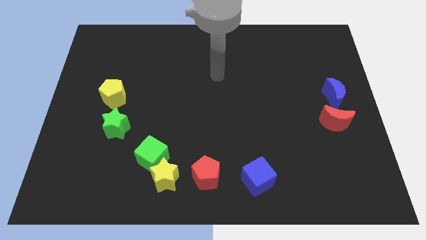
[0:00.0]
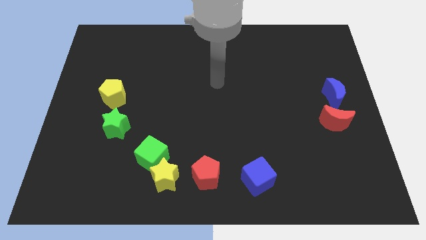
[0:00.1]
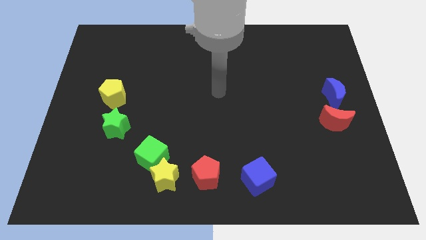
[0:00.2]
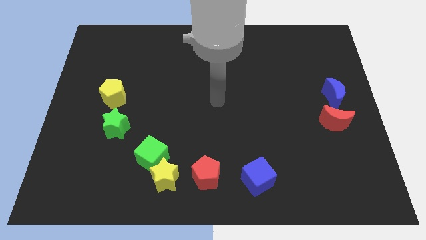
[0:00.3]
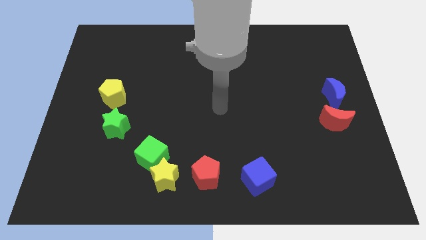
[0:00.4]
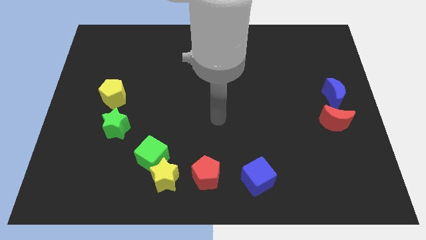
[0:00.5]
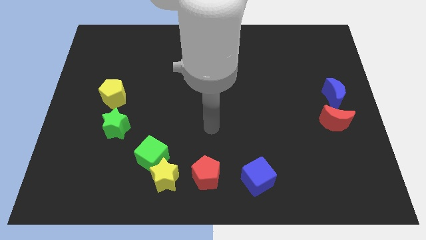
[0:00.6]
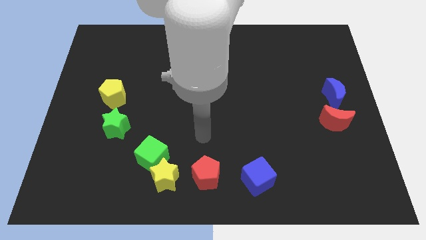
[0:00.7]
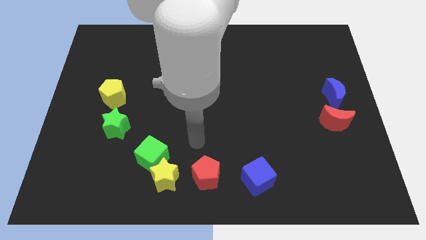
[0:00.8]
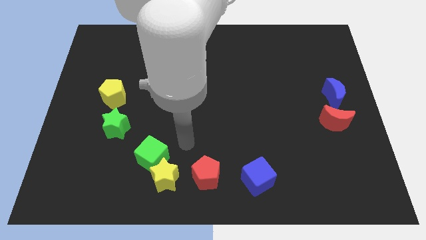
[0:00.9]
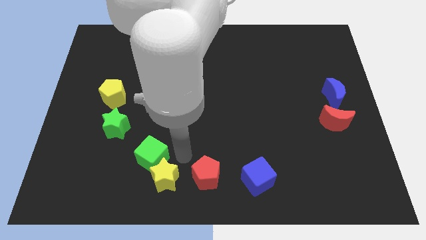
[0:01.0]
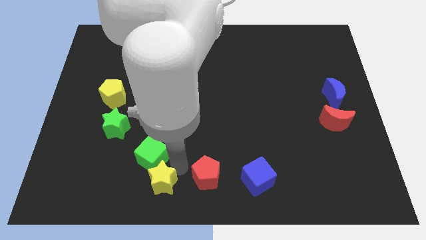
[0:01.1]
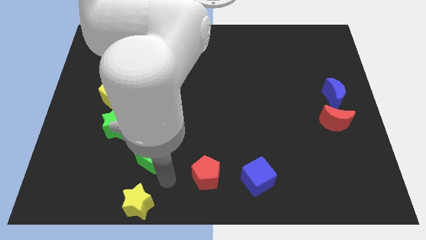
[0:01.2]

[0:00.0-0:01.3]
move the green cube away from the yellow star

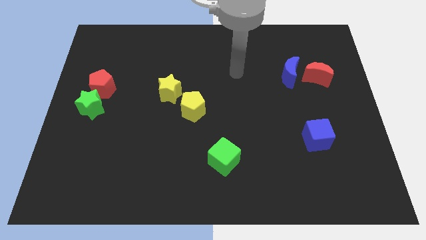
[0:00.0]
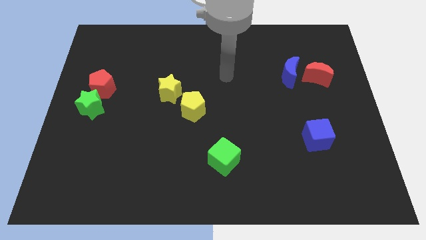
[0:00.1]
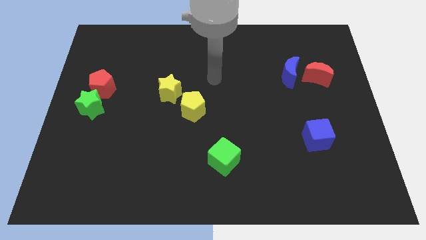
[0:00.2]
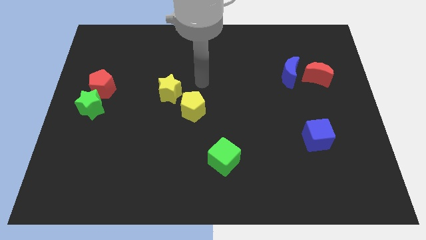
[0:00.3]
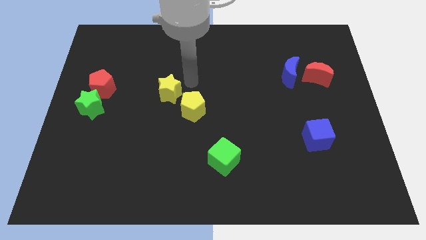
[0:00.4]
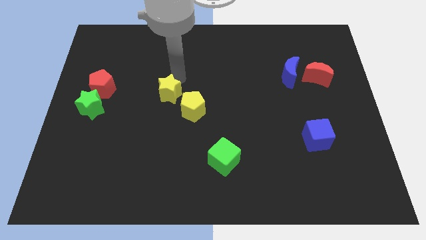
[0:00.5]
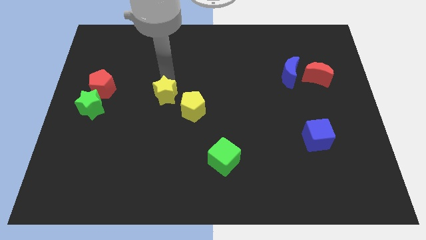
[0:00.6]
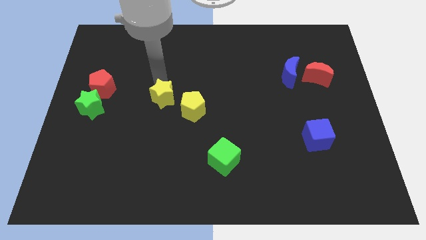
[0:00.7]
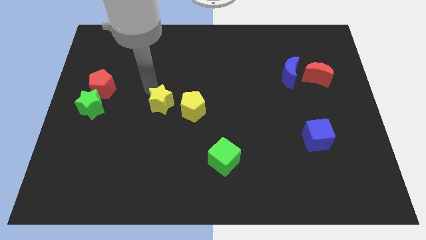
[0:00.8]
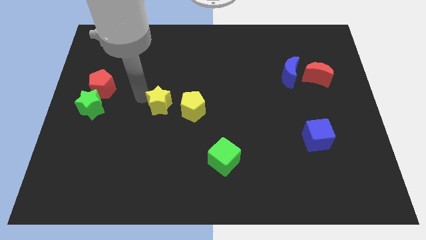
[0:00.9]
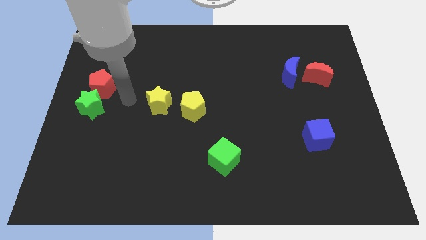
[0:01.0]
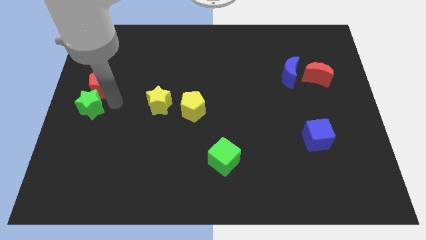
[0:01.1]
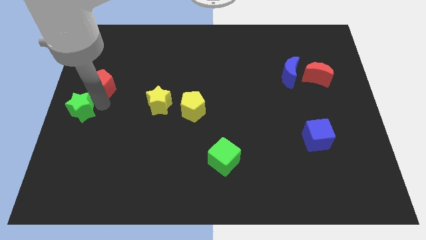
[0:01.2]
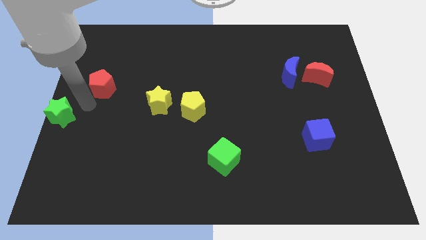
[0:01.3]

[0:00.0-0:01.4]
move the red pentagon away from the green star

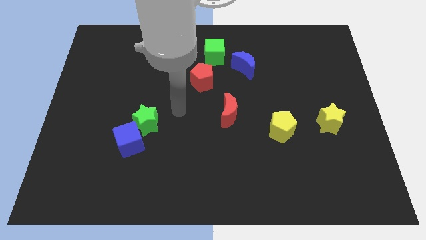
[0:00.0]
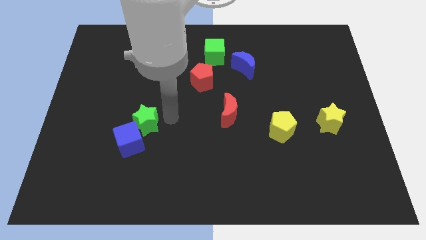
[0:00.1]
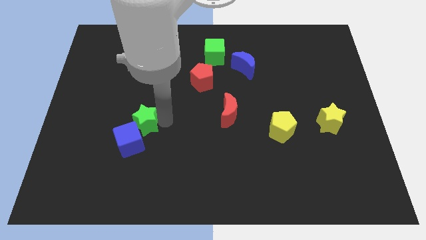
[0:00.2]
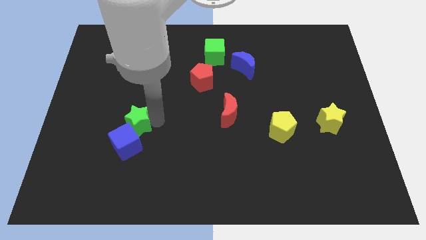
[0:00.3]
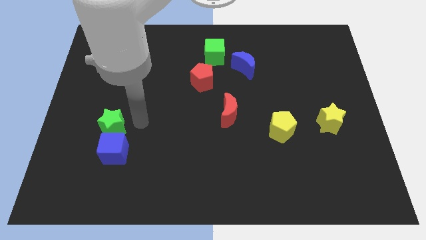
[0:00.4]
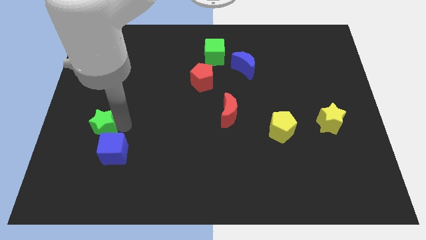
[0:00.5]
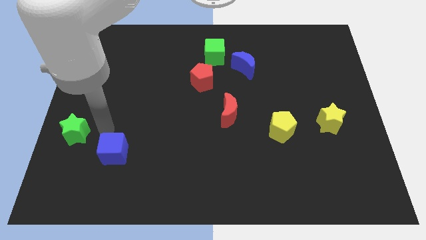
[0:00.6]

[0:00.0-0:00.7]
pull the blue cube apart from the green star

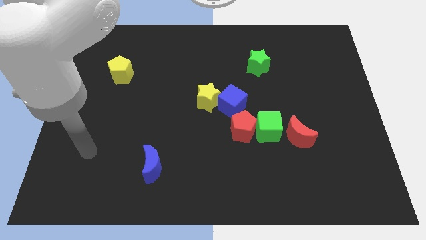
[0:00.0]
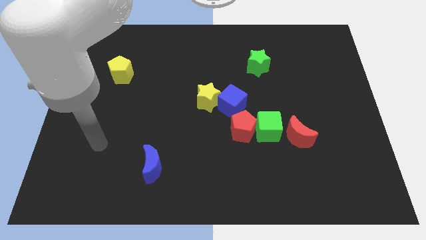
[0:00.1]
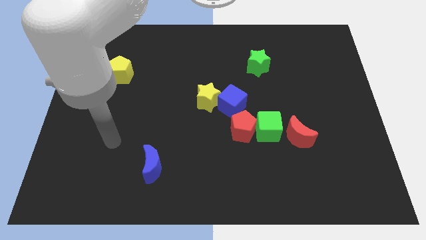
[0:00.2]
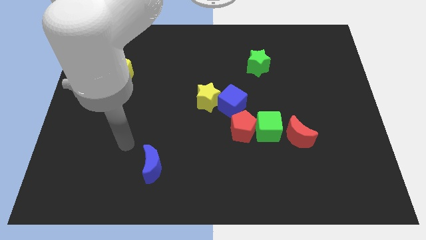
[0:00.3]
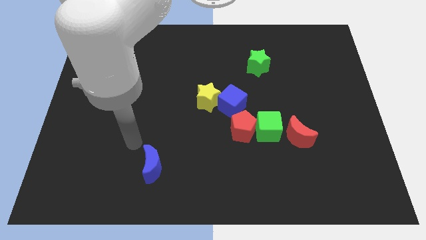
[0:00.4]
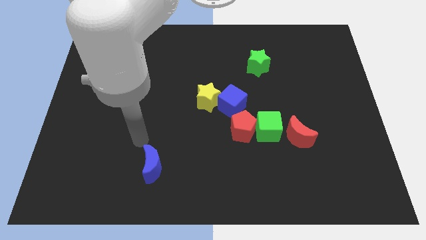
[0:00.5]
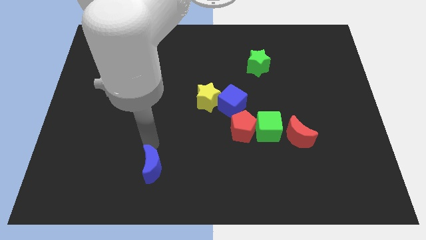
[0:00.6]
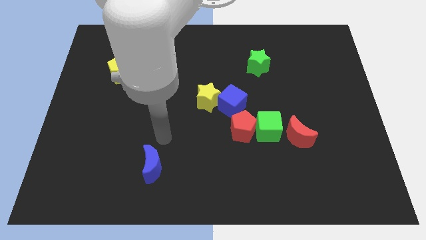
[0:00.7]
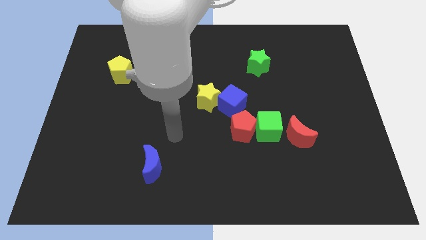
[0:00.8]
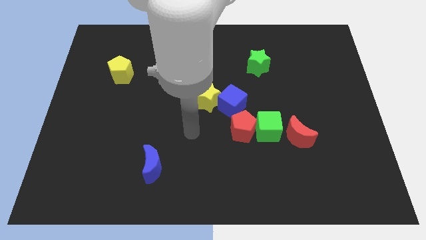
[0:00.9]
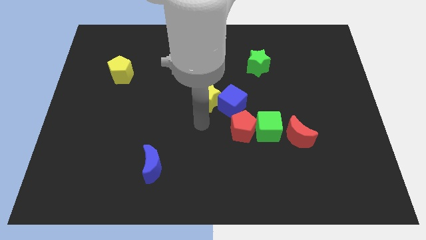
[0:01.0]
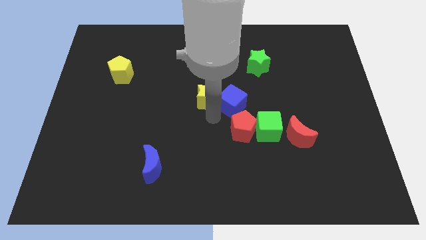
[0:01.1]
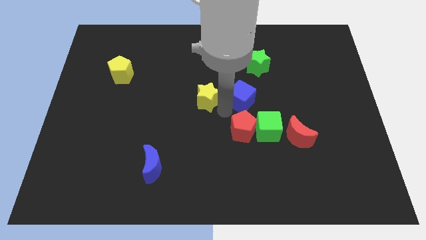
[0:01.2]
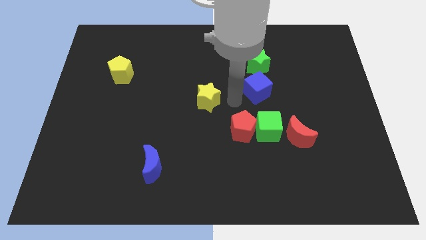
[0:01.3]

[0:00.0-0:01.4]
pull the yellow star apart from the blue cube

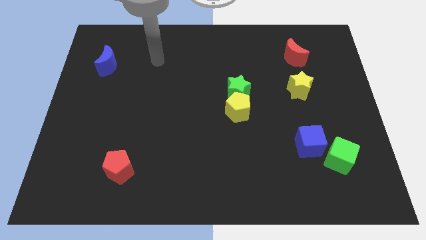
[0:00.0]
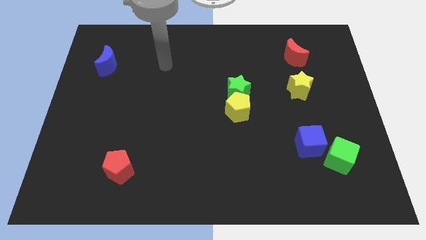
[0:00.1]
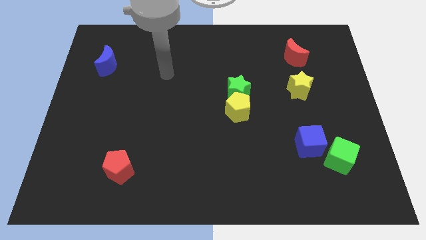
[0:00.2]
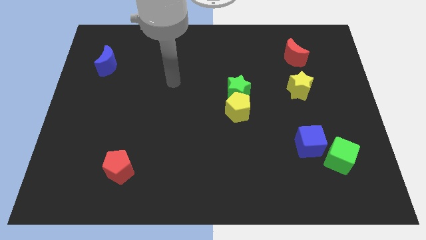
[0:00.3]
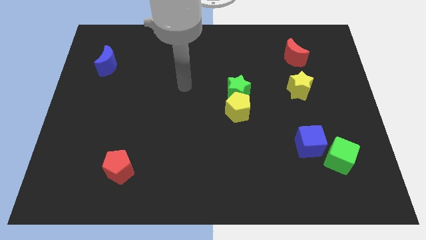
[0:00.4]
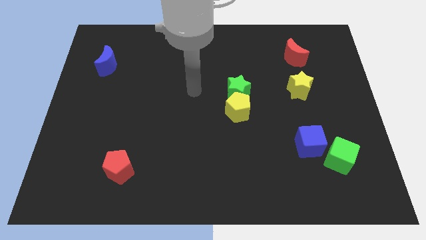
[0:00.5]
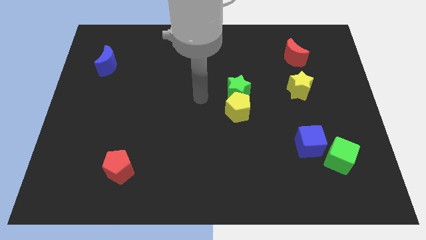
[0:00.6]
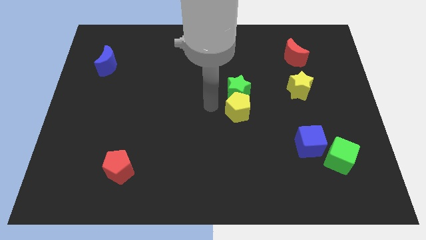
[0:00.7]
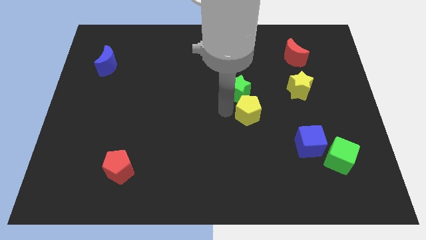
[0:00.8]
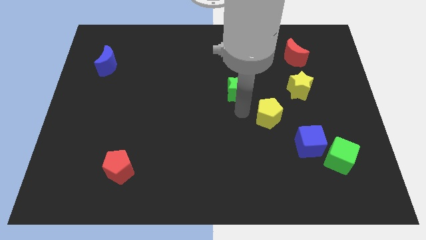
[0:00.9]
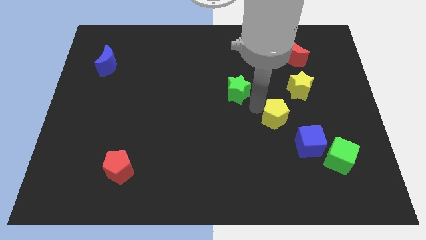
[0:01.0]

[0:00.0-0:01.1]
separate the green star from the yellow pentagon

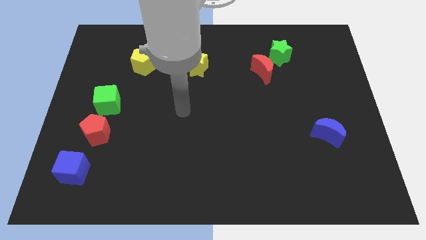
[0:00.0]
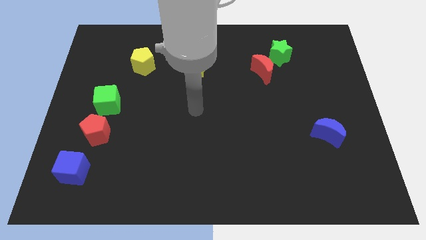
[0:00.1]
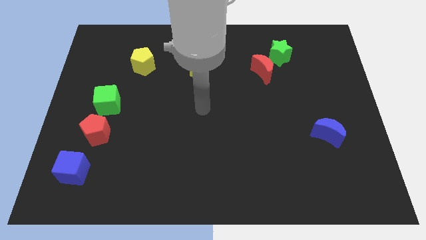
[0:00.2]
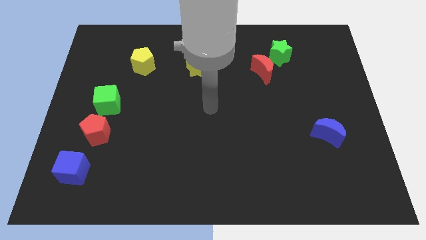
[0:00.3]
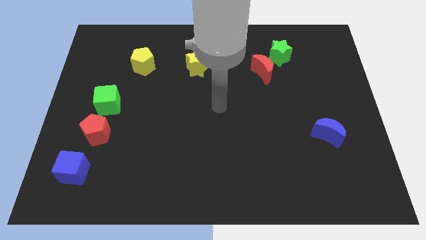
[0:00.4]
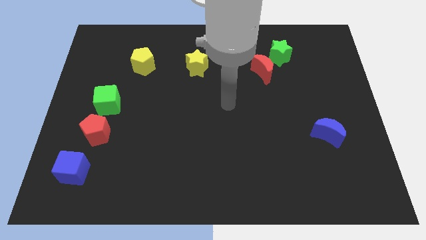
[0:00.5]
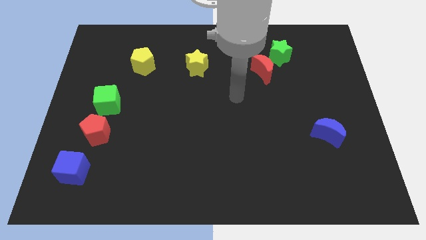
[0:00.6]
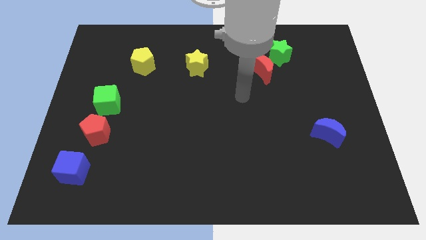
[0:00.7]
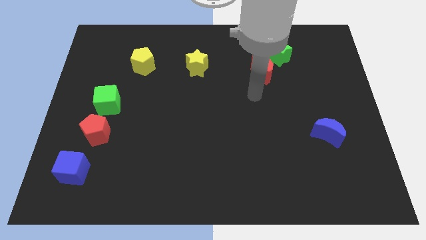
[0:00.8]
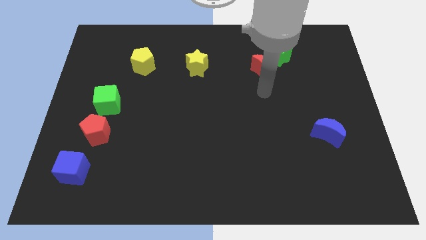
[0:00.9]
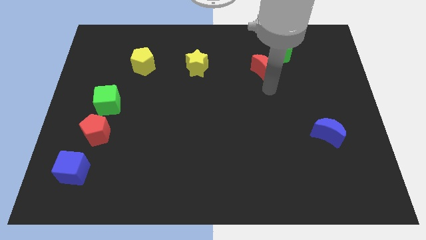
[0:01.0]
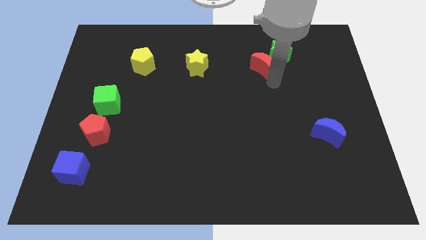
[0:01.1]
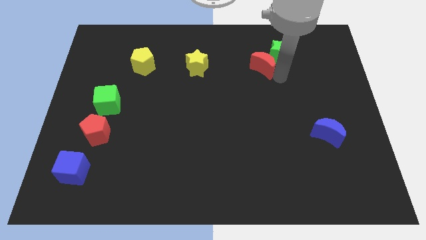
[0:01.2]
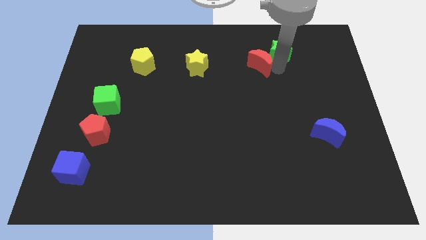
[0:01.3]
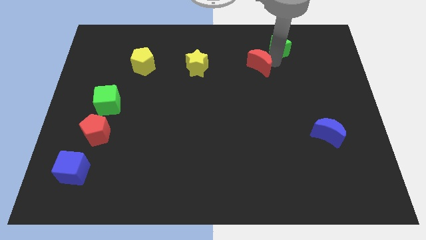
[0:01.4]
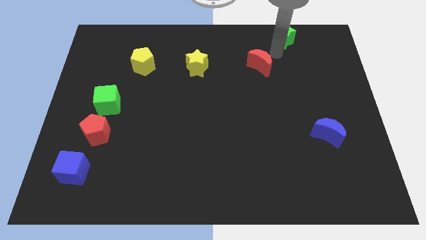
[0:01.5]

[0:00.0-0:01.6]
separate the red moon from the green star

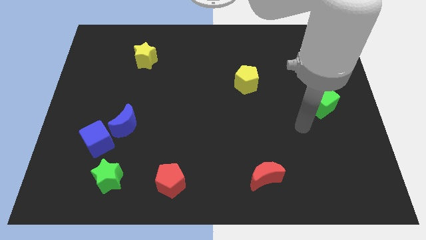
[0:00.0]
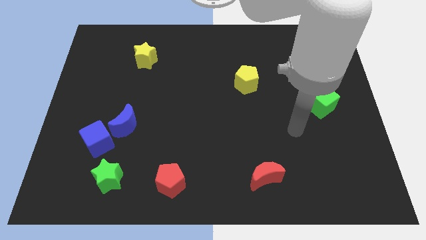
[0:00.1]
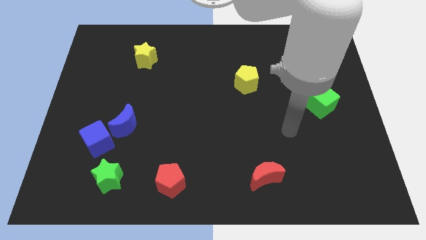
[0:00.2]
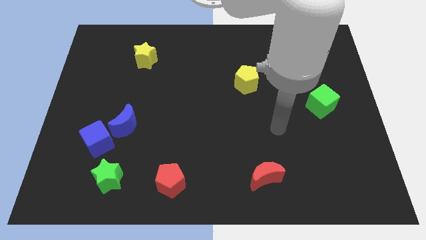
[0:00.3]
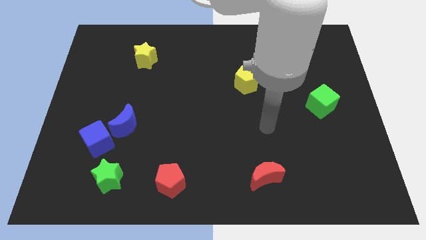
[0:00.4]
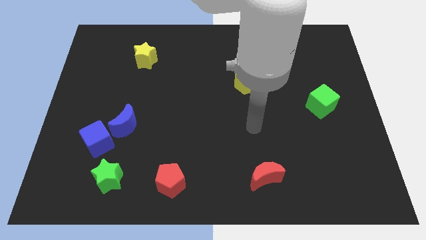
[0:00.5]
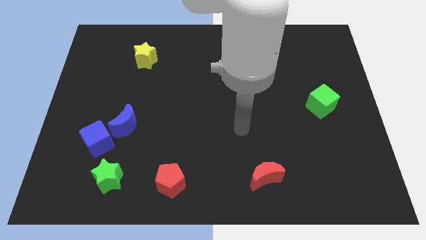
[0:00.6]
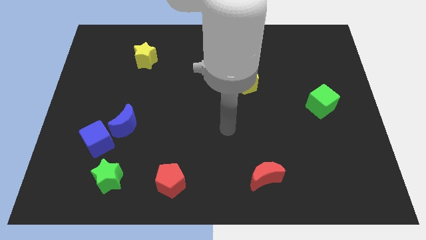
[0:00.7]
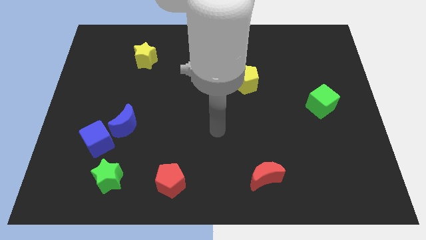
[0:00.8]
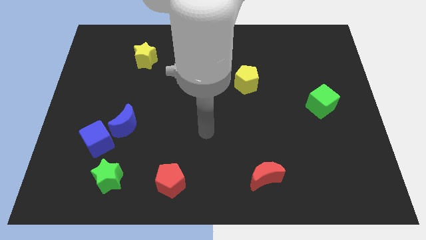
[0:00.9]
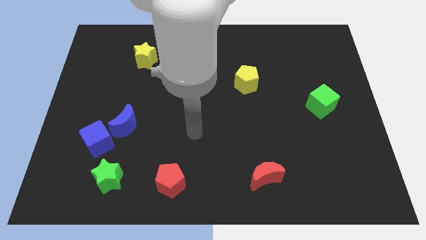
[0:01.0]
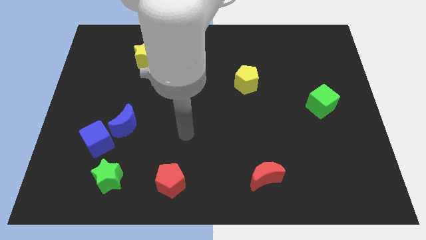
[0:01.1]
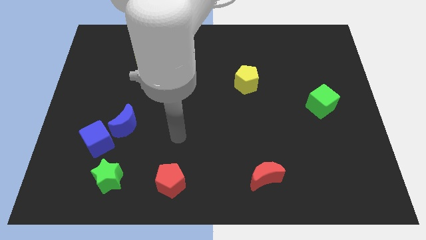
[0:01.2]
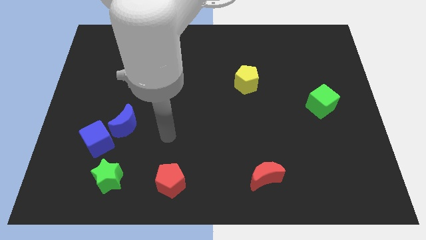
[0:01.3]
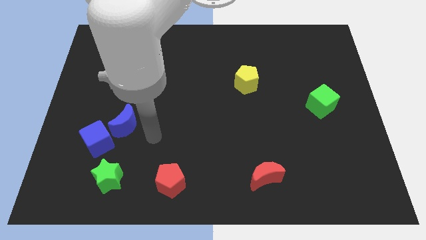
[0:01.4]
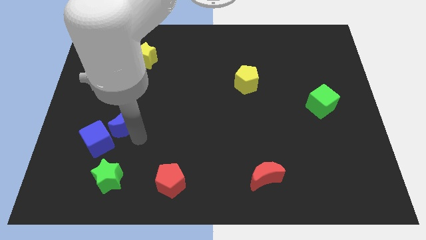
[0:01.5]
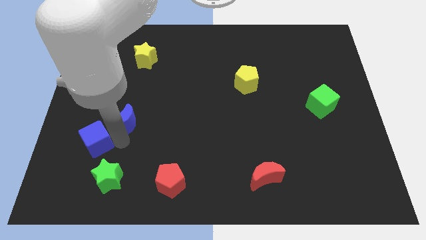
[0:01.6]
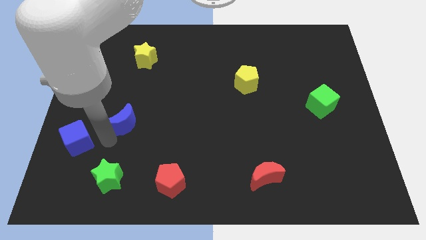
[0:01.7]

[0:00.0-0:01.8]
move the blue moon away from the blue cube
